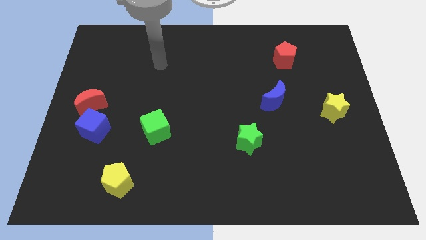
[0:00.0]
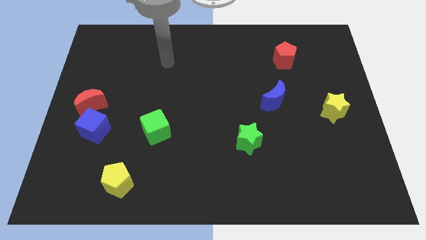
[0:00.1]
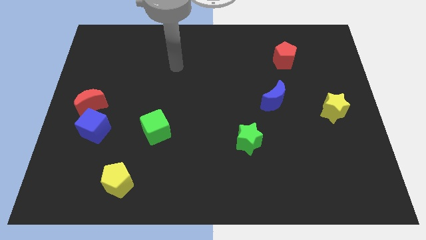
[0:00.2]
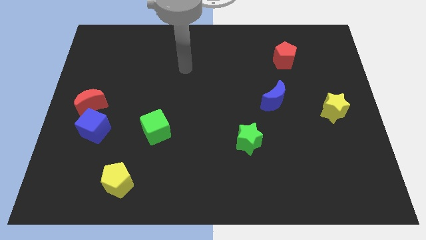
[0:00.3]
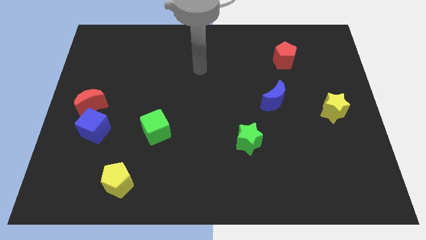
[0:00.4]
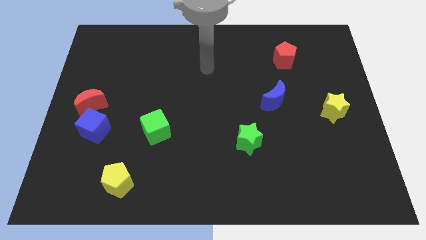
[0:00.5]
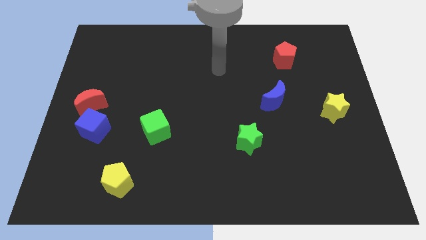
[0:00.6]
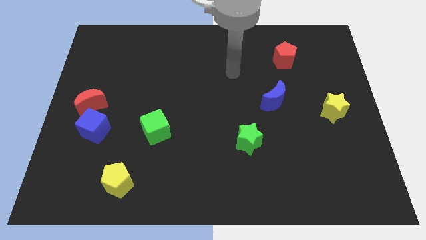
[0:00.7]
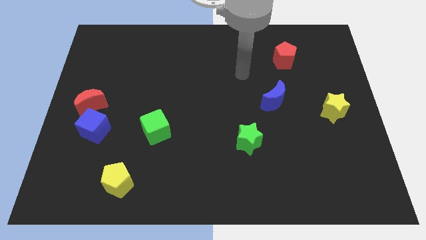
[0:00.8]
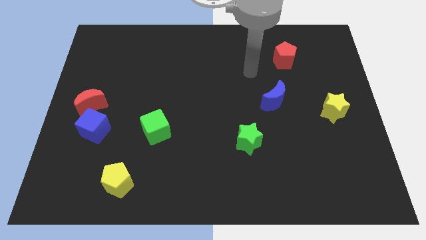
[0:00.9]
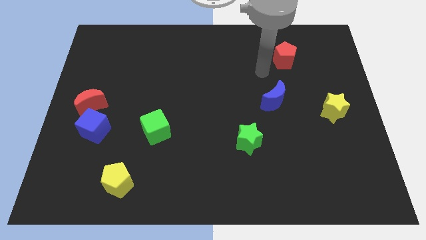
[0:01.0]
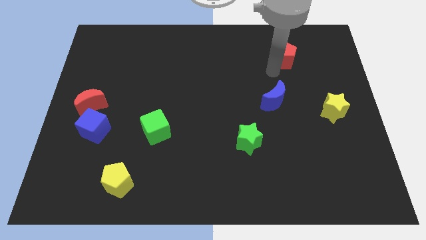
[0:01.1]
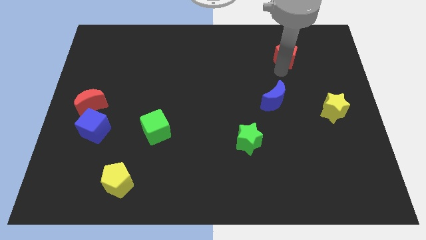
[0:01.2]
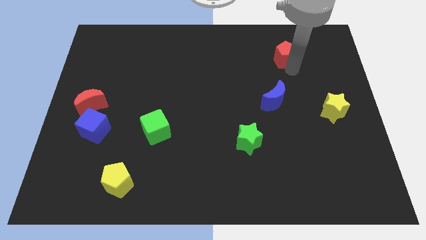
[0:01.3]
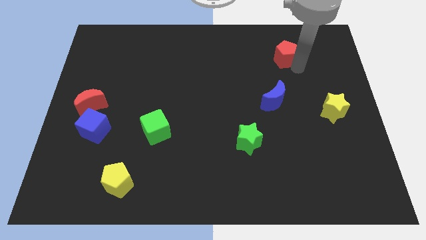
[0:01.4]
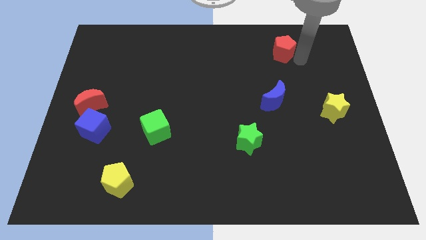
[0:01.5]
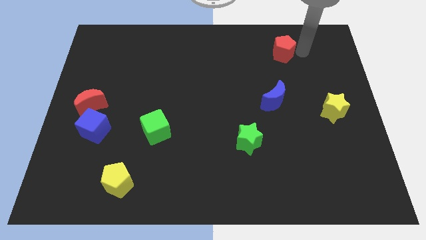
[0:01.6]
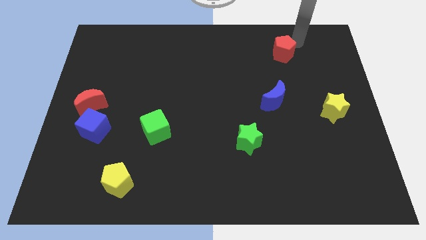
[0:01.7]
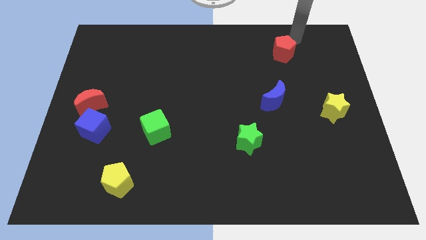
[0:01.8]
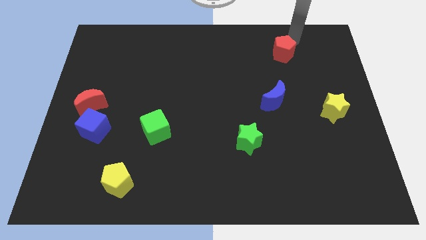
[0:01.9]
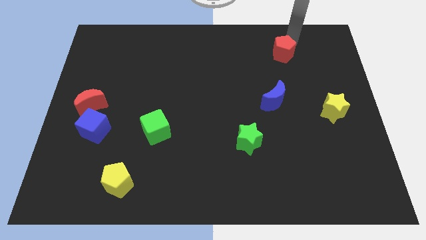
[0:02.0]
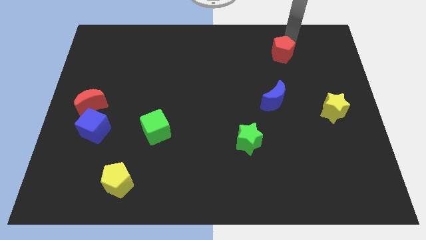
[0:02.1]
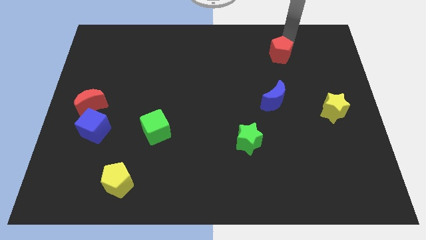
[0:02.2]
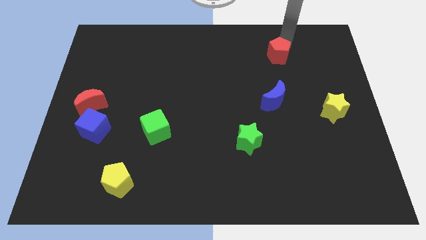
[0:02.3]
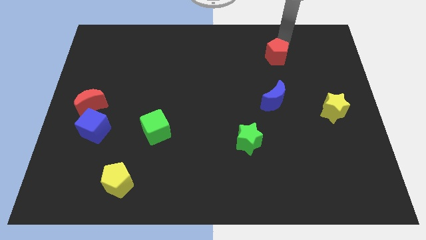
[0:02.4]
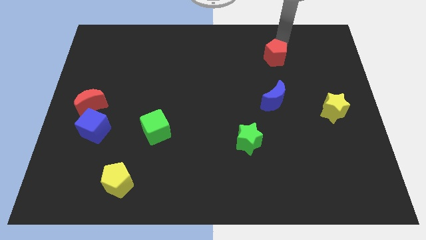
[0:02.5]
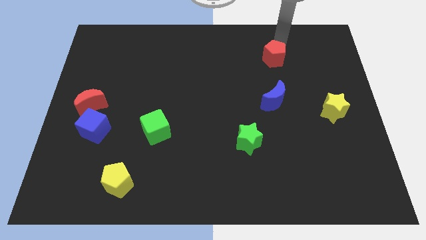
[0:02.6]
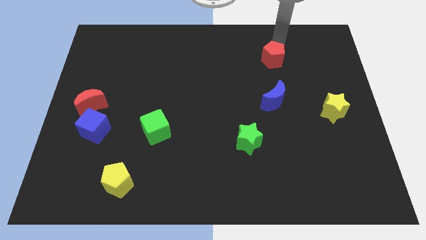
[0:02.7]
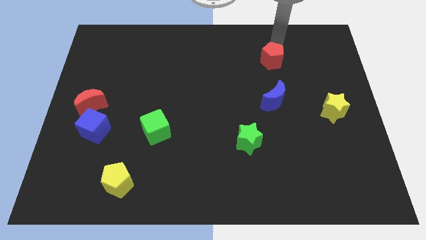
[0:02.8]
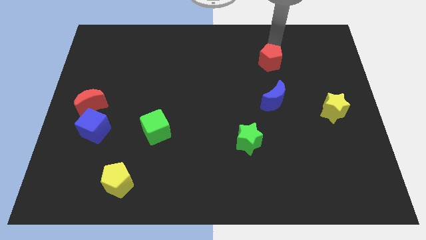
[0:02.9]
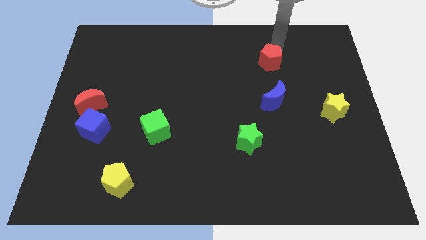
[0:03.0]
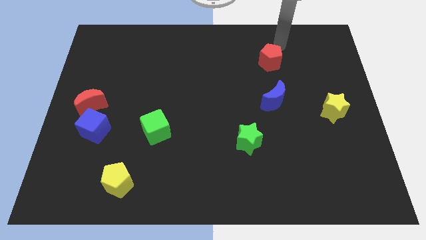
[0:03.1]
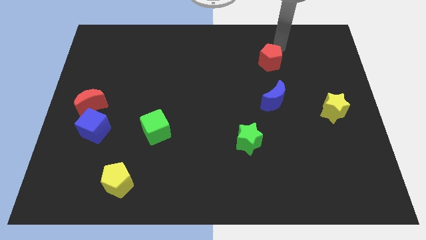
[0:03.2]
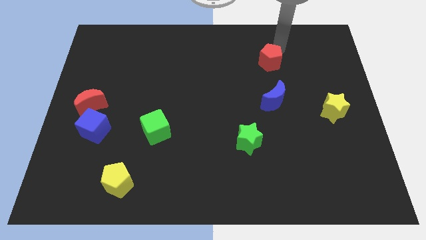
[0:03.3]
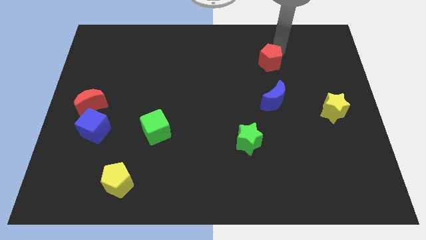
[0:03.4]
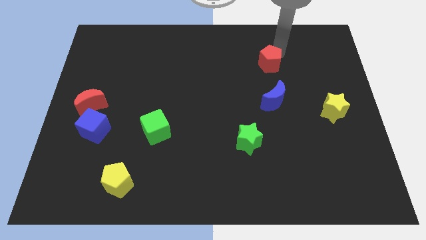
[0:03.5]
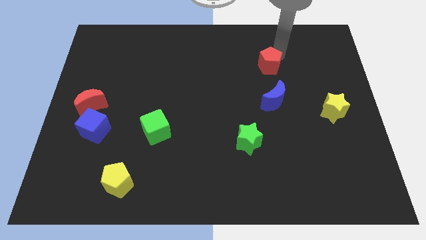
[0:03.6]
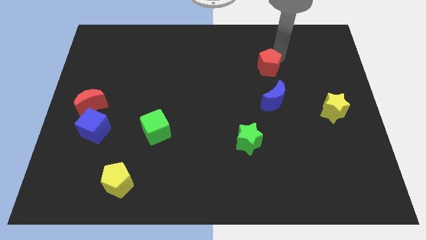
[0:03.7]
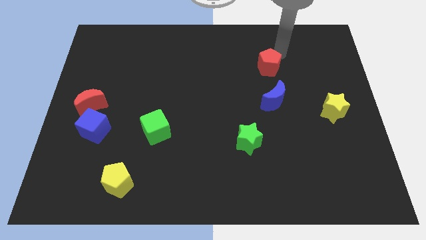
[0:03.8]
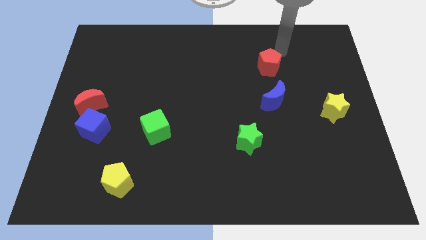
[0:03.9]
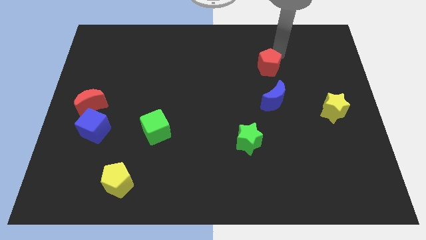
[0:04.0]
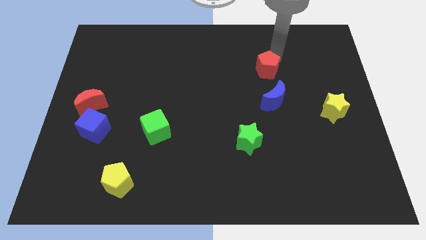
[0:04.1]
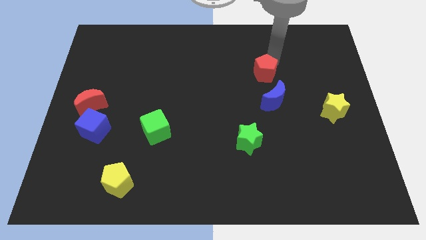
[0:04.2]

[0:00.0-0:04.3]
slide the red pentagon down and left slightly

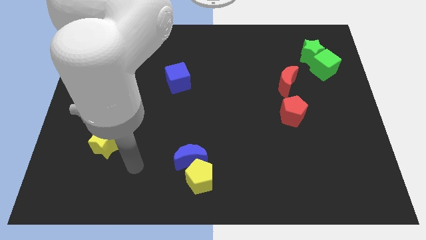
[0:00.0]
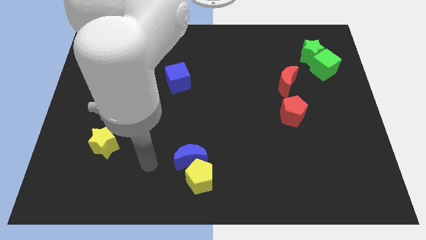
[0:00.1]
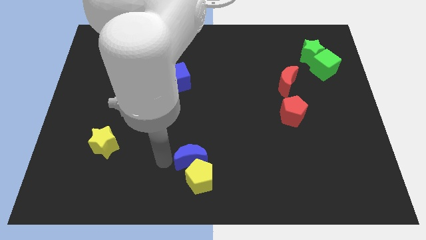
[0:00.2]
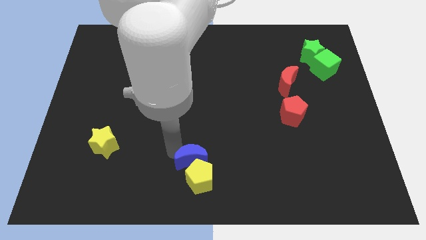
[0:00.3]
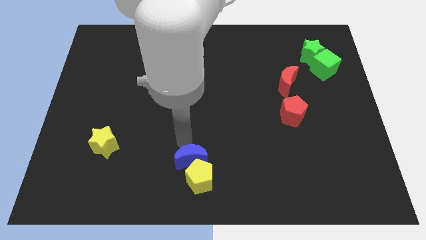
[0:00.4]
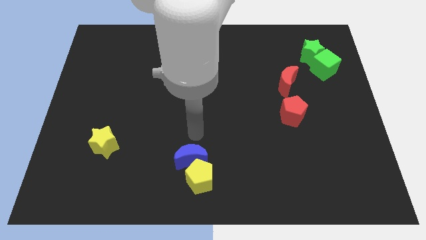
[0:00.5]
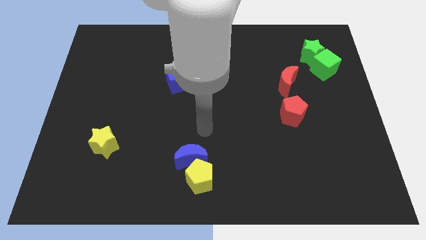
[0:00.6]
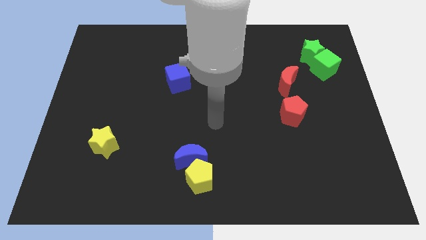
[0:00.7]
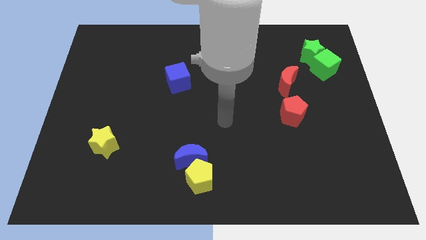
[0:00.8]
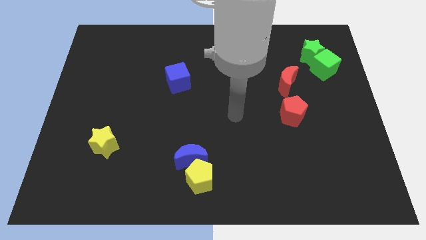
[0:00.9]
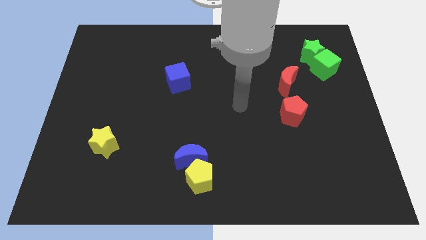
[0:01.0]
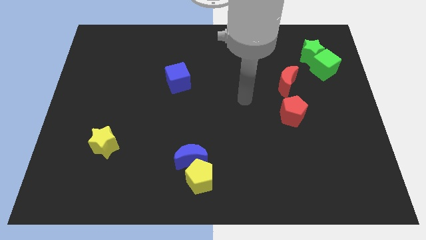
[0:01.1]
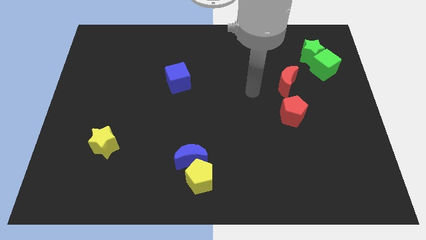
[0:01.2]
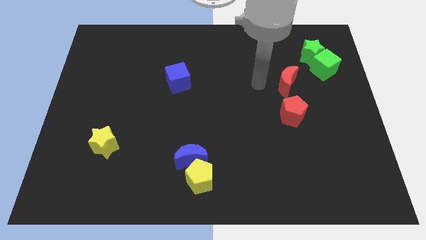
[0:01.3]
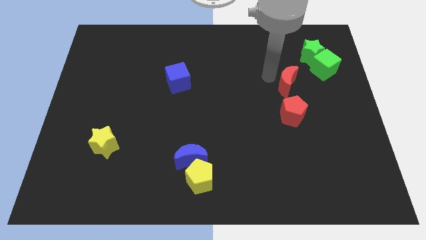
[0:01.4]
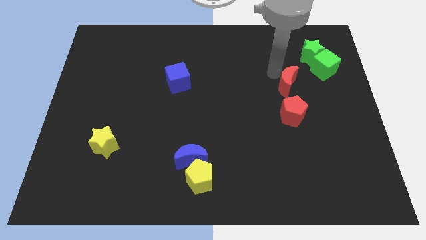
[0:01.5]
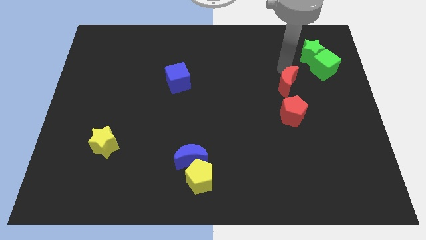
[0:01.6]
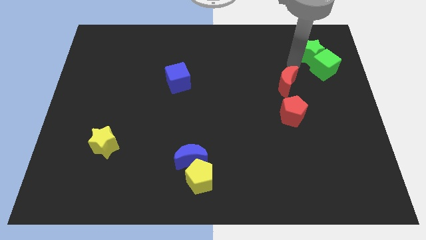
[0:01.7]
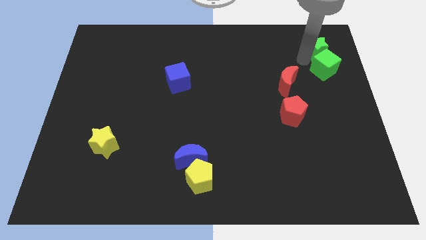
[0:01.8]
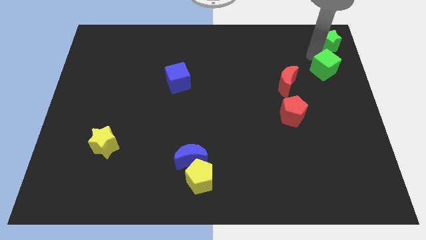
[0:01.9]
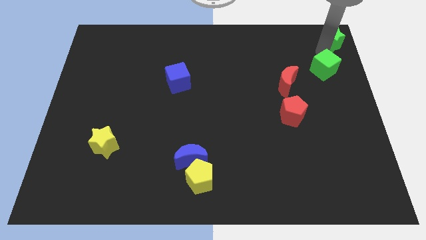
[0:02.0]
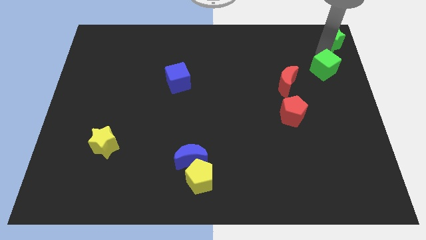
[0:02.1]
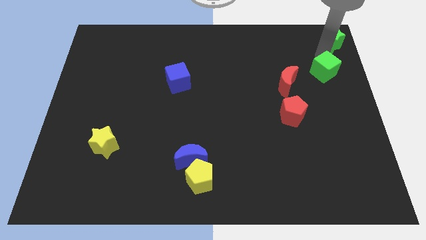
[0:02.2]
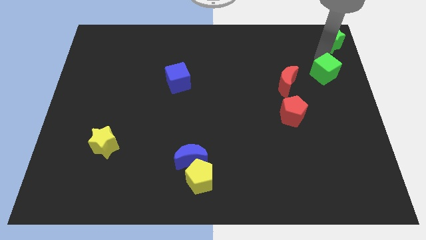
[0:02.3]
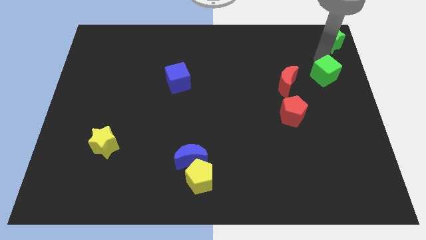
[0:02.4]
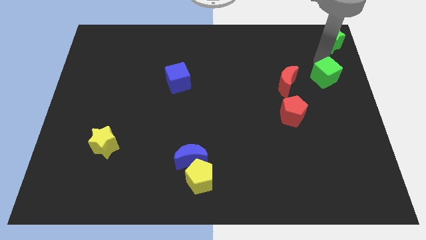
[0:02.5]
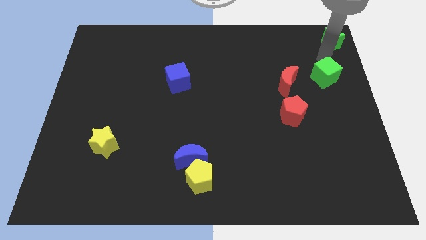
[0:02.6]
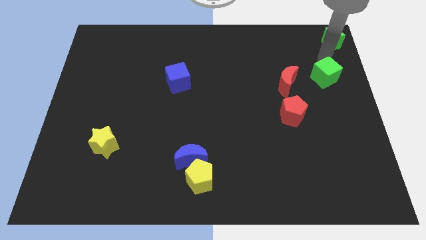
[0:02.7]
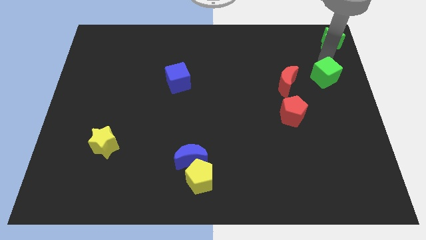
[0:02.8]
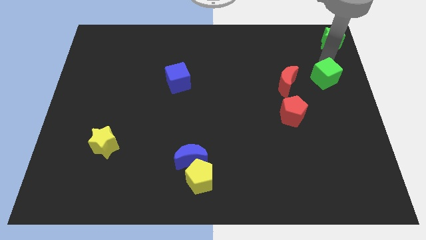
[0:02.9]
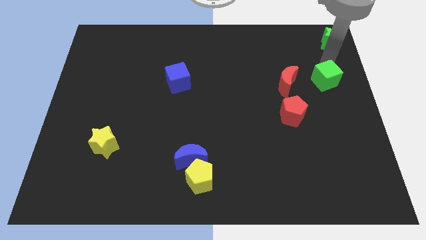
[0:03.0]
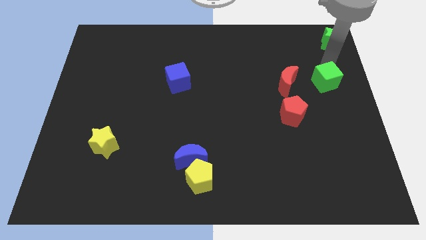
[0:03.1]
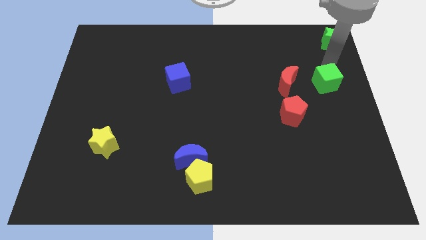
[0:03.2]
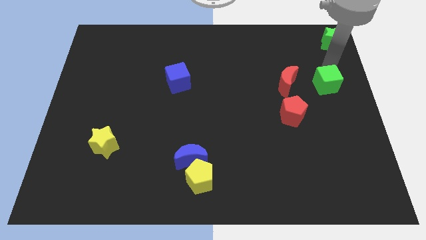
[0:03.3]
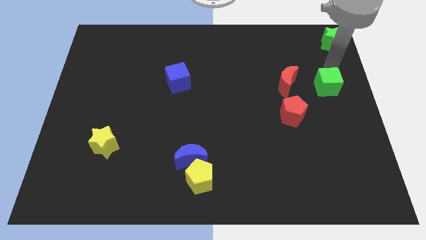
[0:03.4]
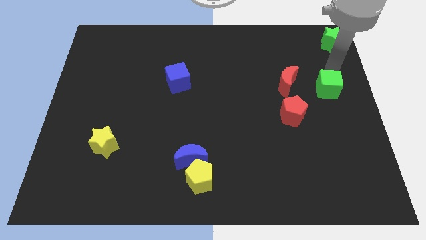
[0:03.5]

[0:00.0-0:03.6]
slightly slide the green cube downwards
